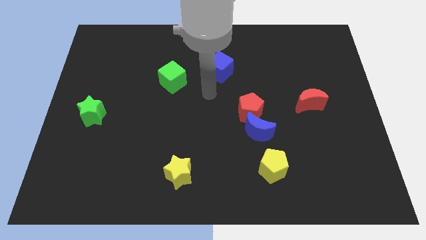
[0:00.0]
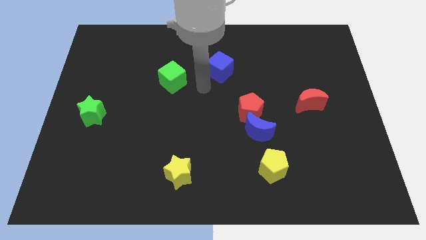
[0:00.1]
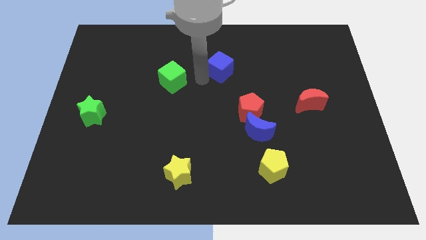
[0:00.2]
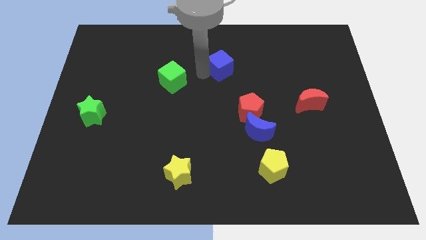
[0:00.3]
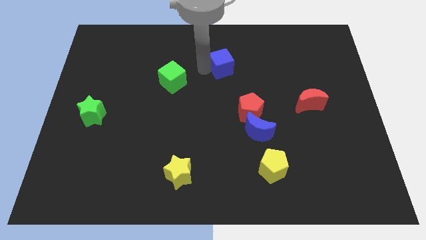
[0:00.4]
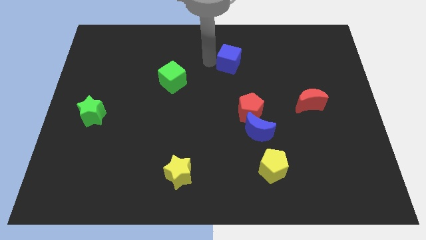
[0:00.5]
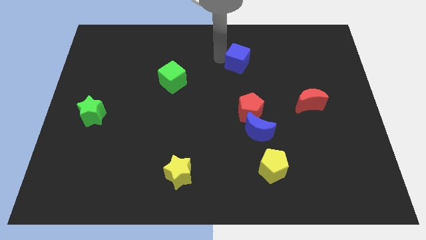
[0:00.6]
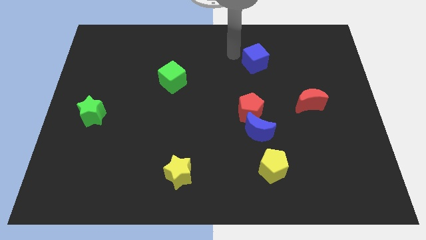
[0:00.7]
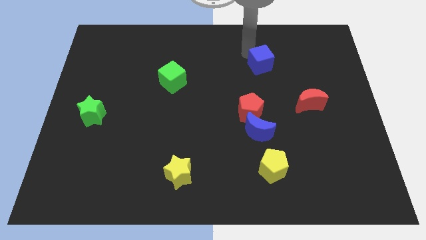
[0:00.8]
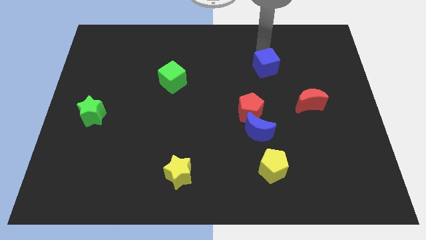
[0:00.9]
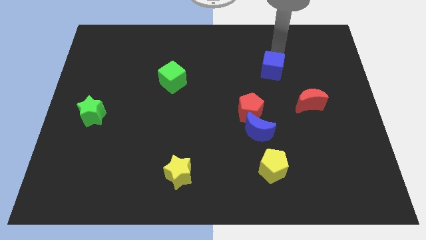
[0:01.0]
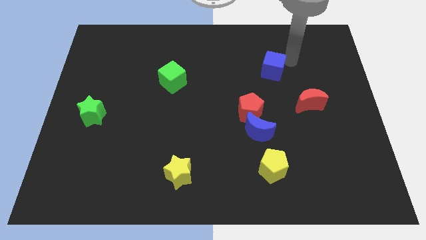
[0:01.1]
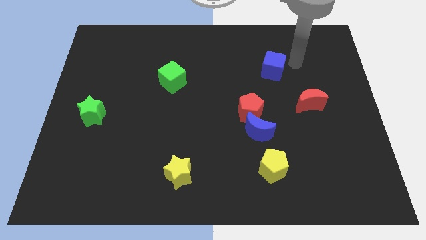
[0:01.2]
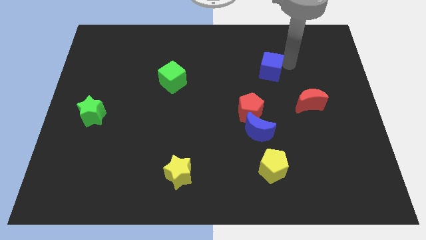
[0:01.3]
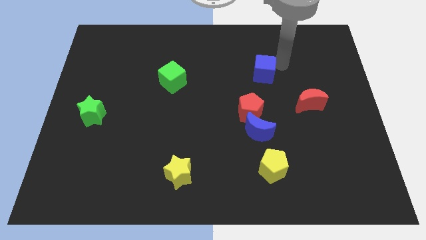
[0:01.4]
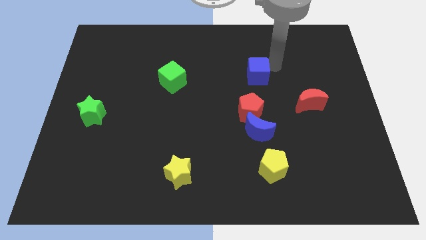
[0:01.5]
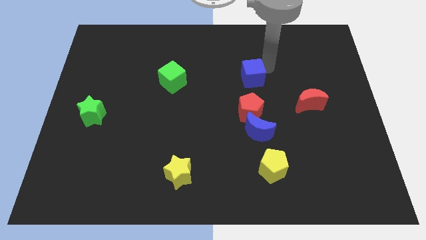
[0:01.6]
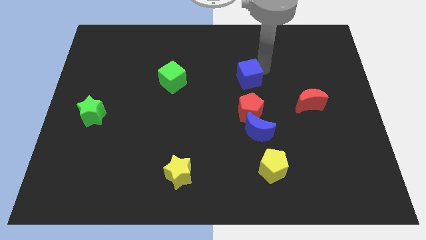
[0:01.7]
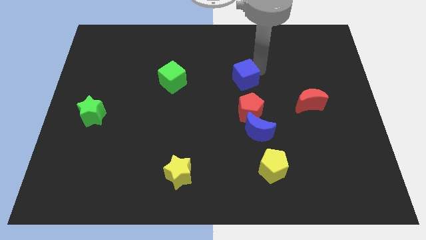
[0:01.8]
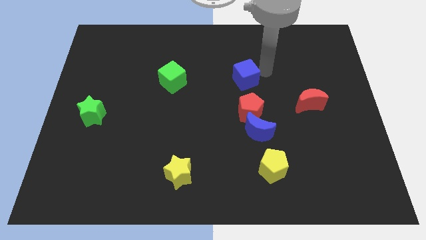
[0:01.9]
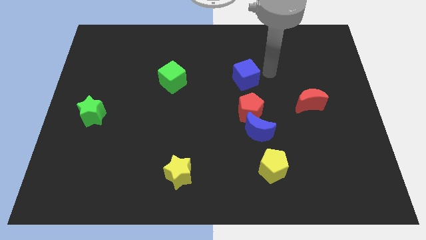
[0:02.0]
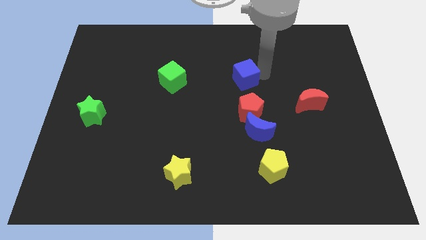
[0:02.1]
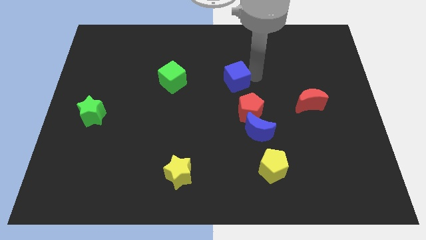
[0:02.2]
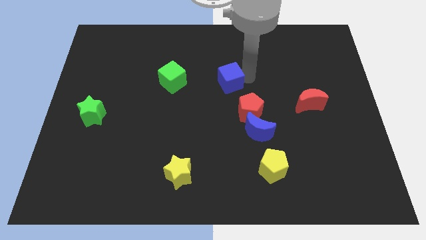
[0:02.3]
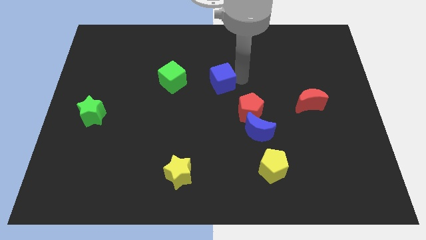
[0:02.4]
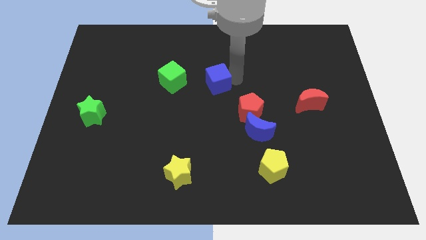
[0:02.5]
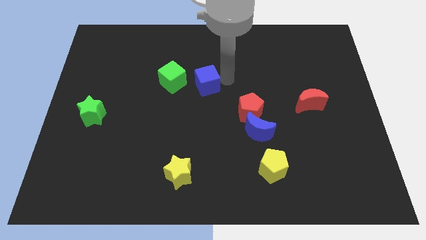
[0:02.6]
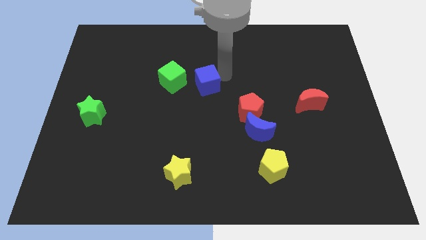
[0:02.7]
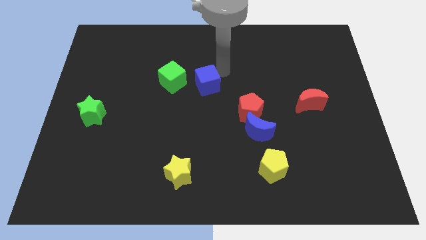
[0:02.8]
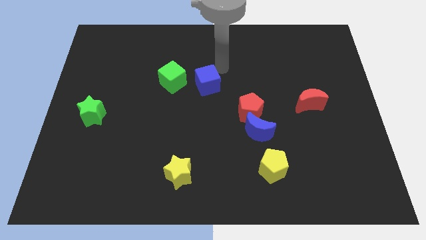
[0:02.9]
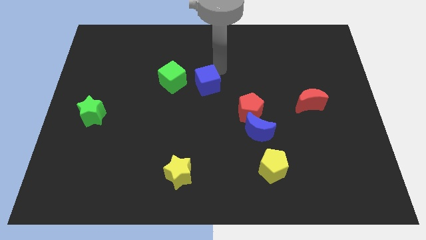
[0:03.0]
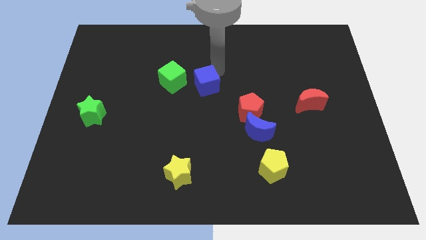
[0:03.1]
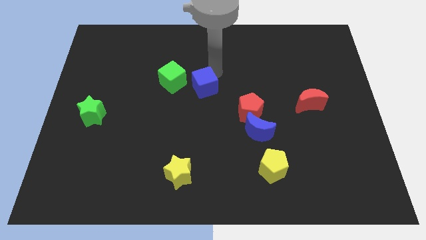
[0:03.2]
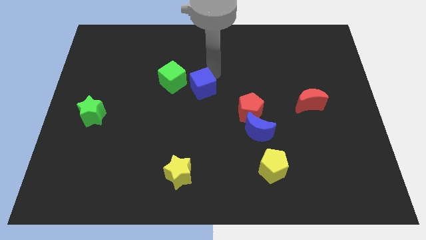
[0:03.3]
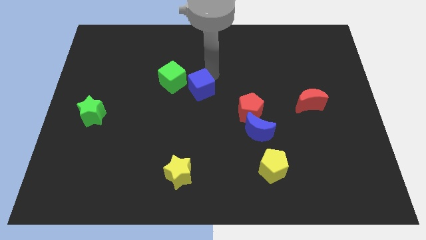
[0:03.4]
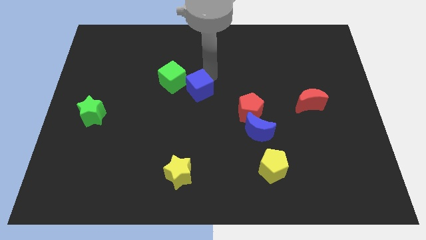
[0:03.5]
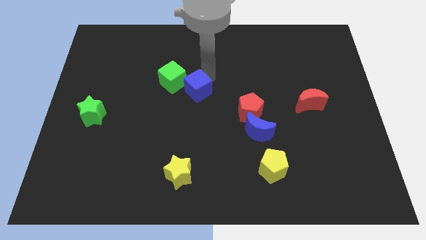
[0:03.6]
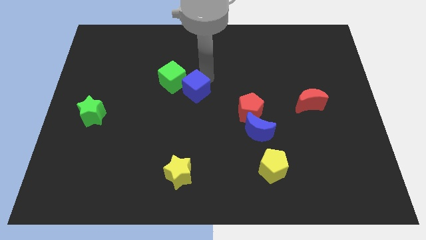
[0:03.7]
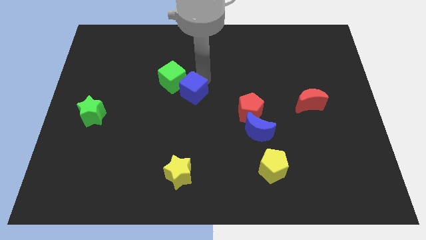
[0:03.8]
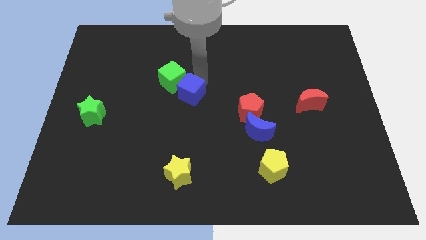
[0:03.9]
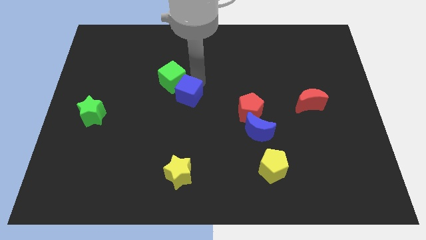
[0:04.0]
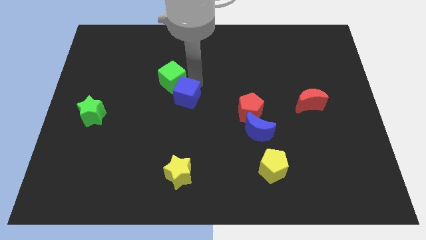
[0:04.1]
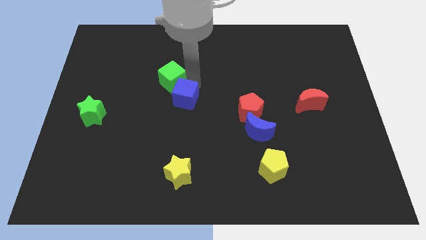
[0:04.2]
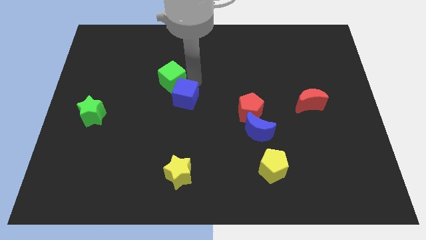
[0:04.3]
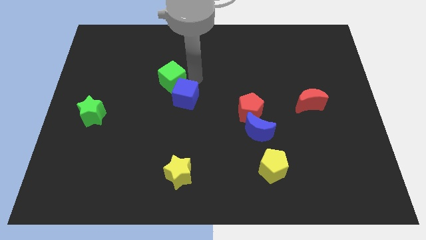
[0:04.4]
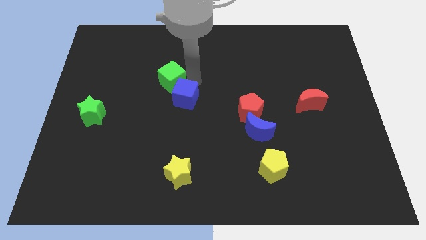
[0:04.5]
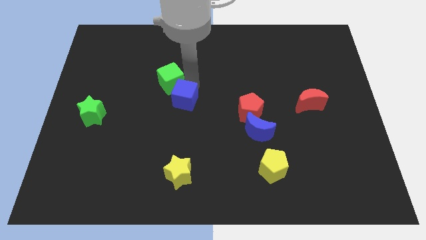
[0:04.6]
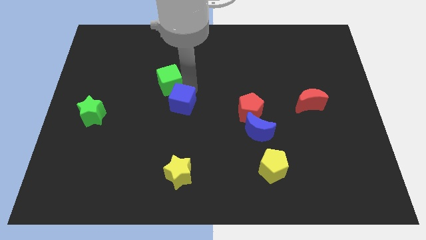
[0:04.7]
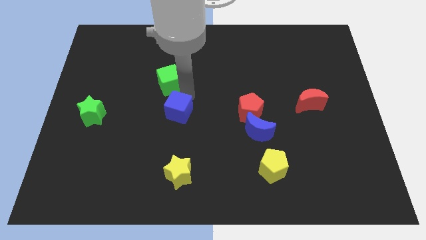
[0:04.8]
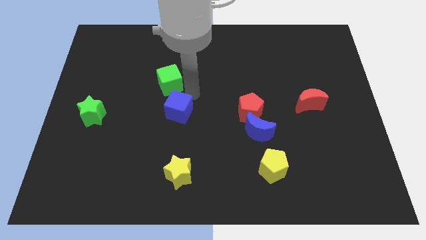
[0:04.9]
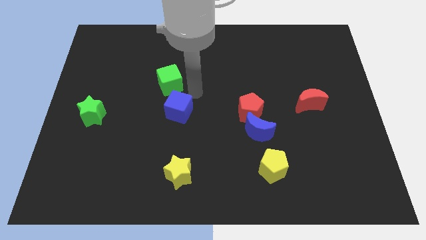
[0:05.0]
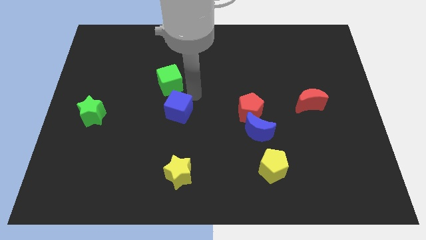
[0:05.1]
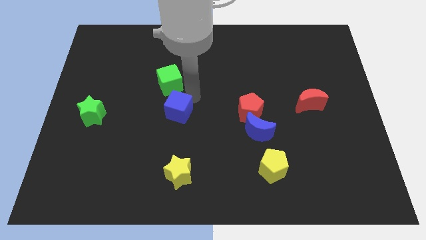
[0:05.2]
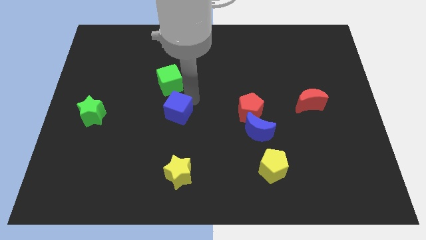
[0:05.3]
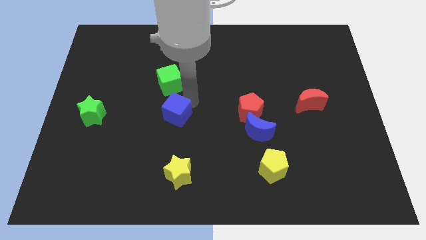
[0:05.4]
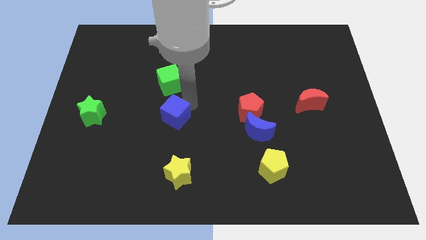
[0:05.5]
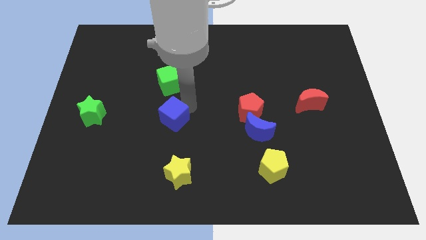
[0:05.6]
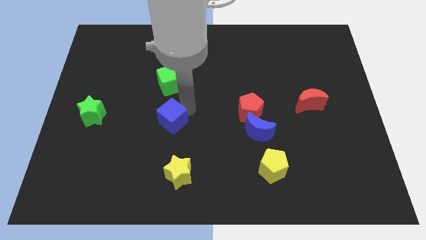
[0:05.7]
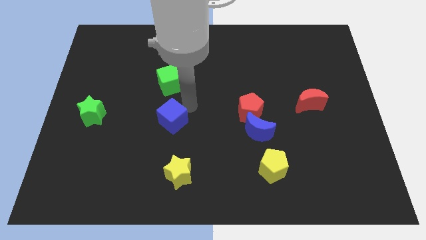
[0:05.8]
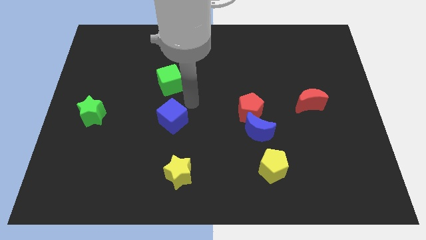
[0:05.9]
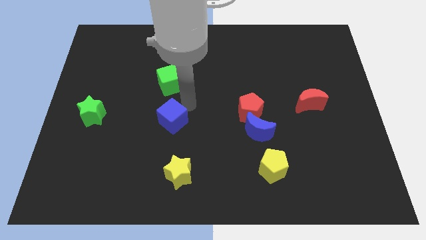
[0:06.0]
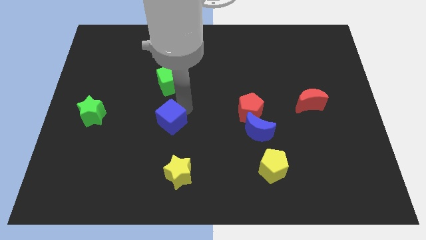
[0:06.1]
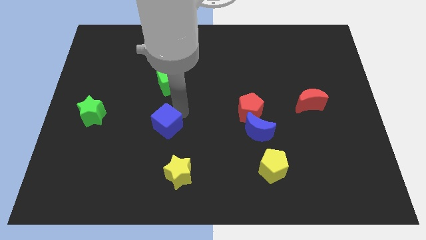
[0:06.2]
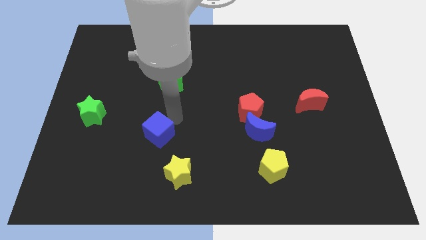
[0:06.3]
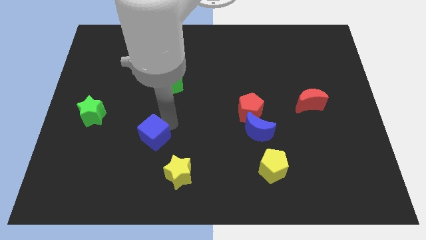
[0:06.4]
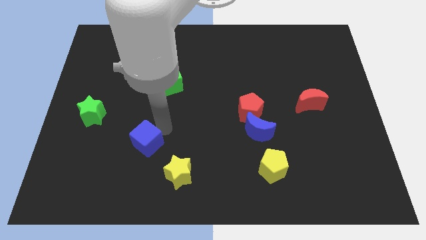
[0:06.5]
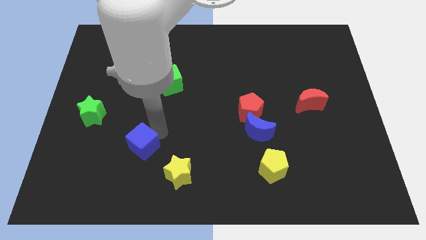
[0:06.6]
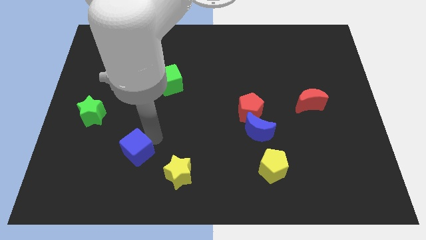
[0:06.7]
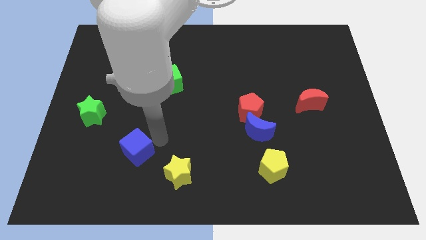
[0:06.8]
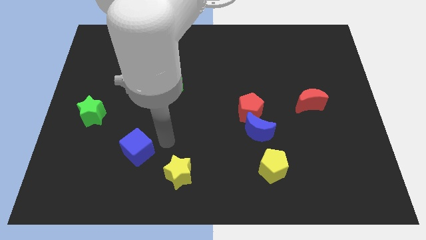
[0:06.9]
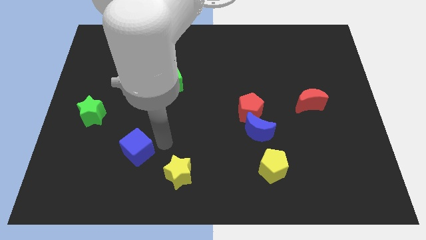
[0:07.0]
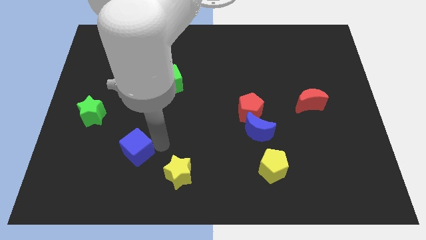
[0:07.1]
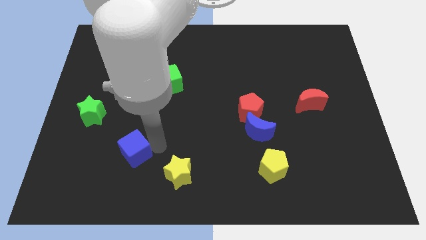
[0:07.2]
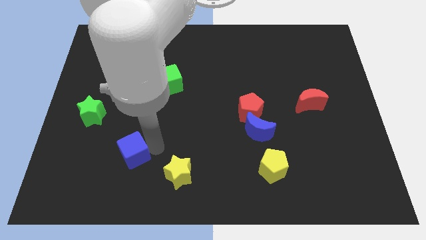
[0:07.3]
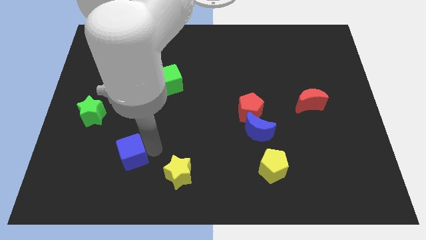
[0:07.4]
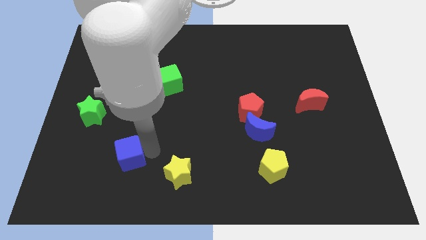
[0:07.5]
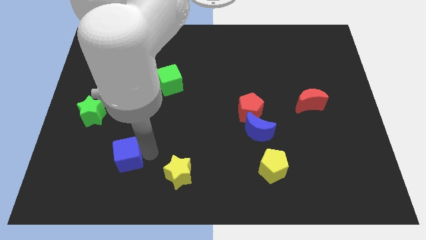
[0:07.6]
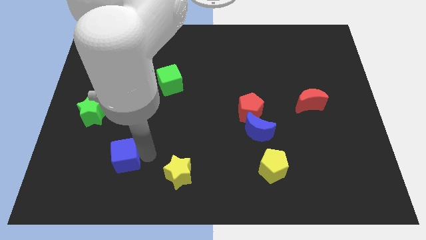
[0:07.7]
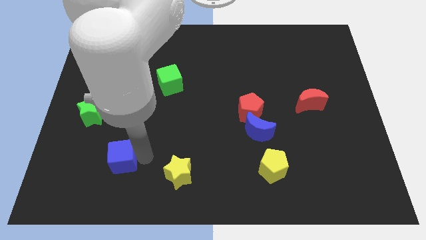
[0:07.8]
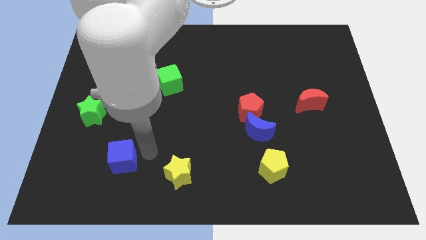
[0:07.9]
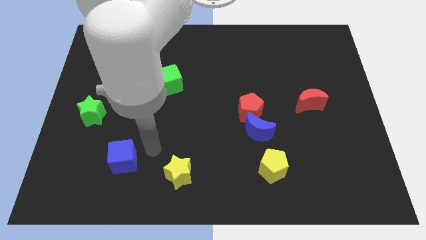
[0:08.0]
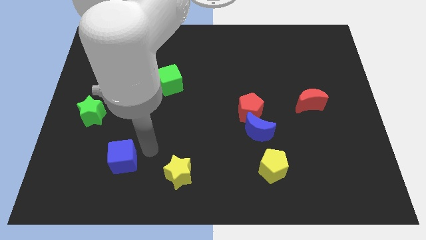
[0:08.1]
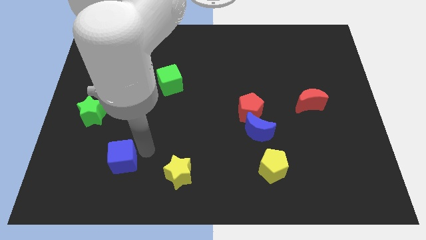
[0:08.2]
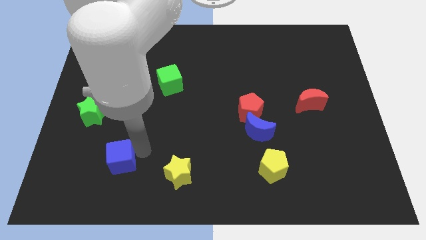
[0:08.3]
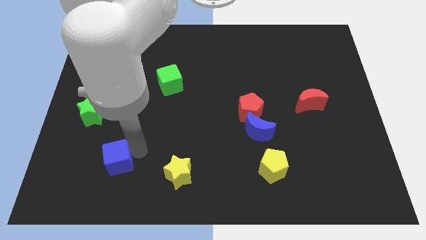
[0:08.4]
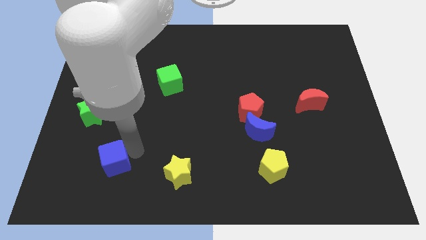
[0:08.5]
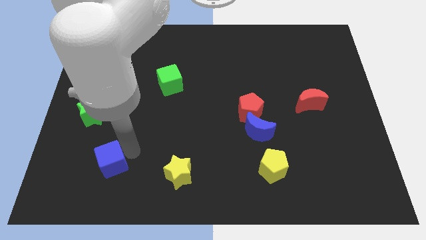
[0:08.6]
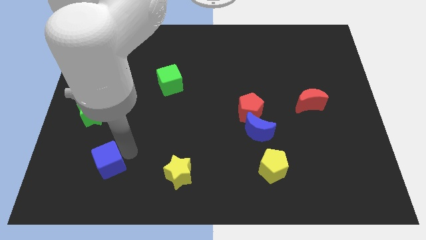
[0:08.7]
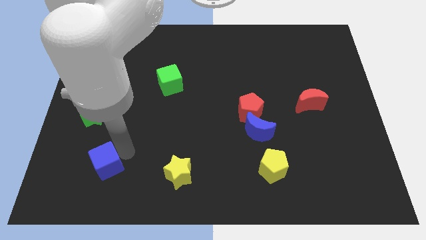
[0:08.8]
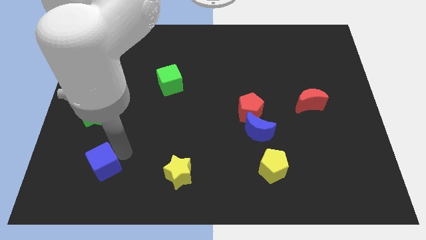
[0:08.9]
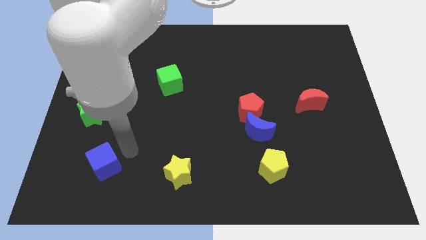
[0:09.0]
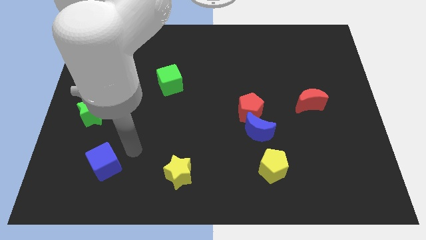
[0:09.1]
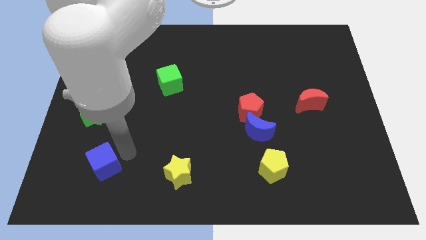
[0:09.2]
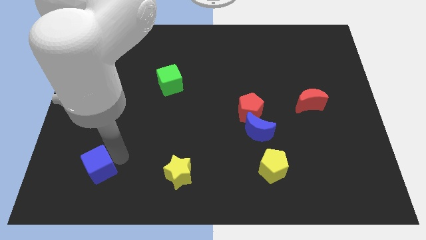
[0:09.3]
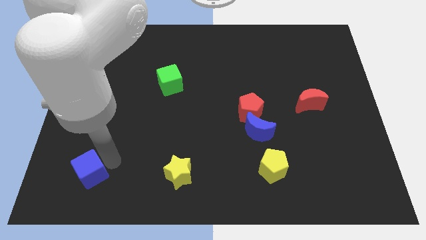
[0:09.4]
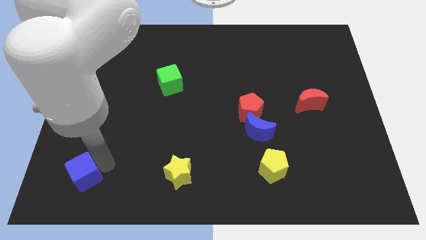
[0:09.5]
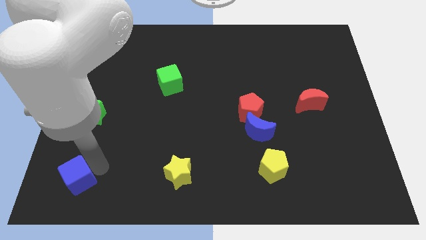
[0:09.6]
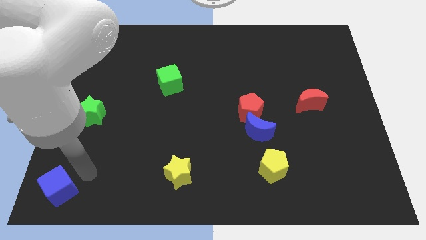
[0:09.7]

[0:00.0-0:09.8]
slide the blue cube to the lower left corner
